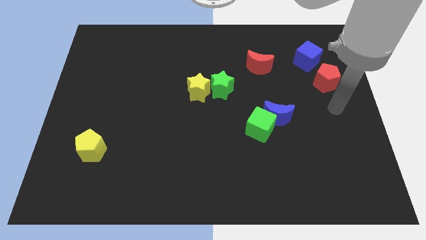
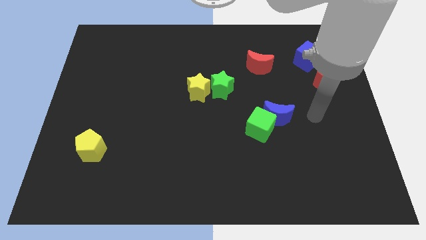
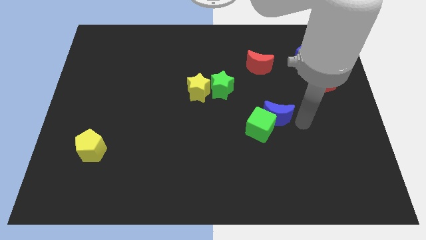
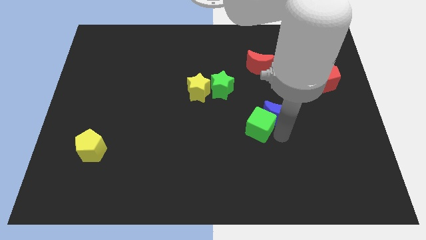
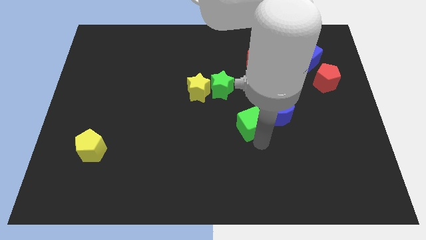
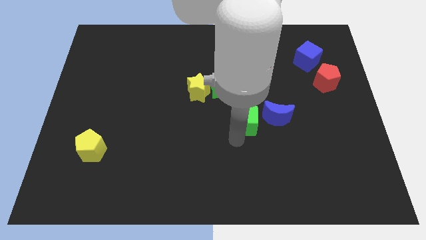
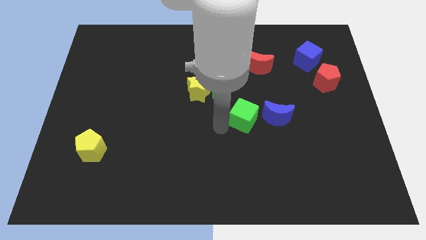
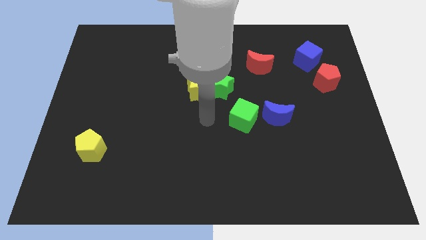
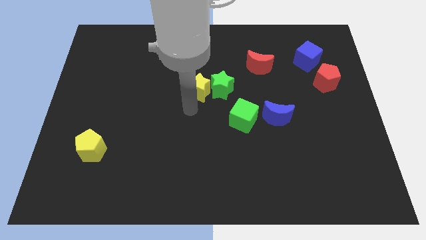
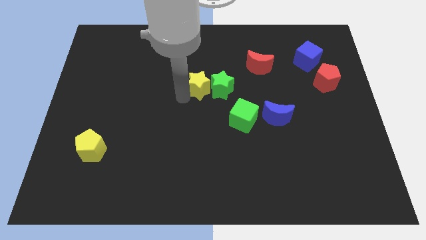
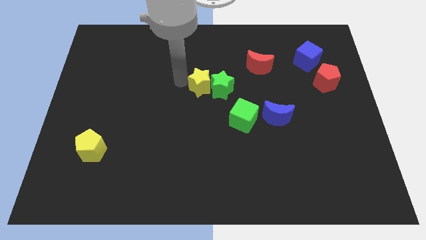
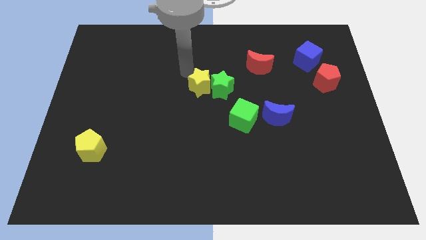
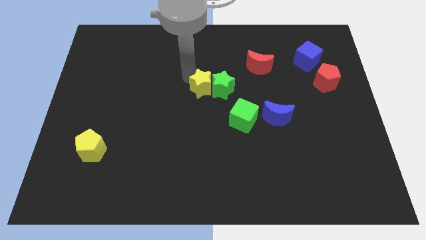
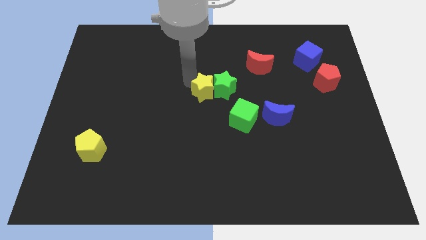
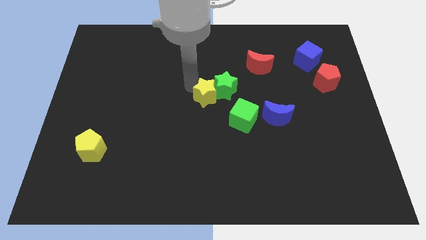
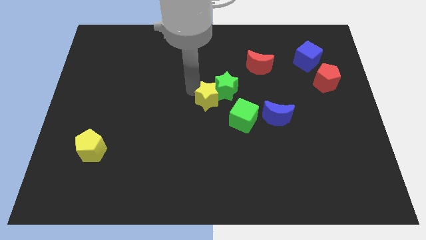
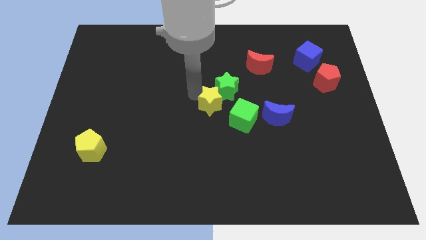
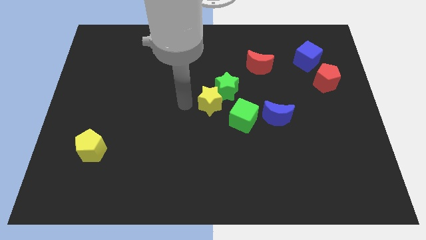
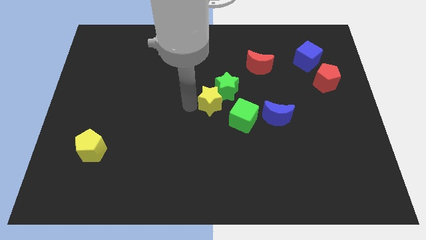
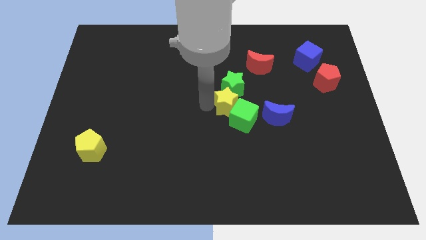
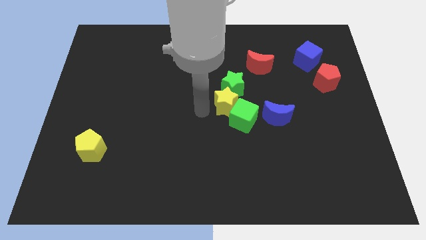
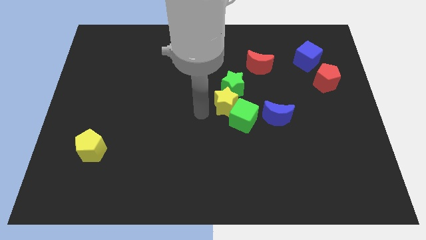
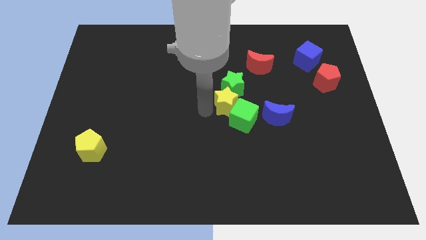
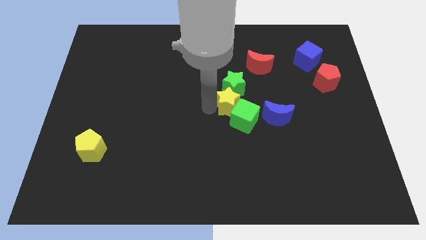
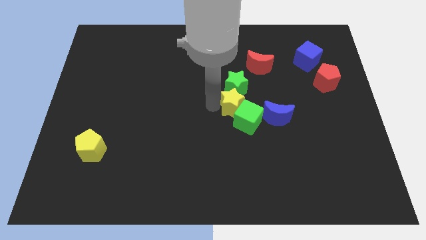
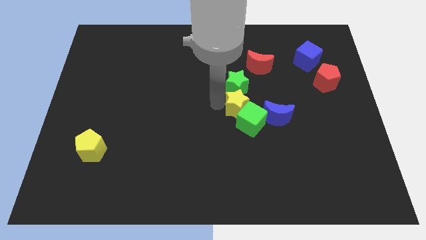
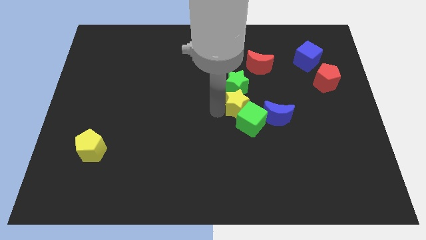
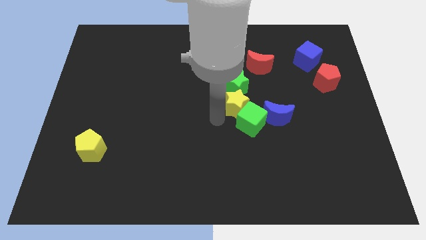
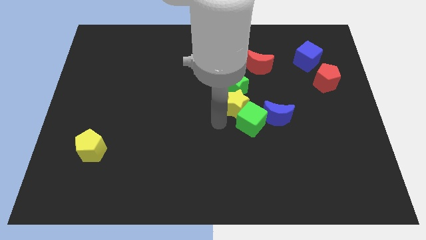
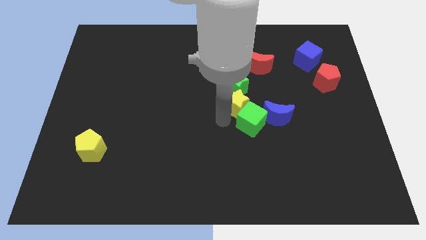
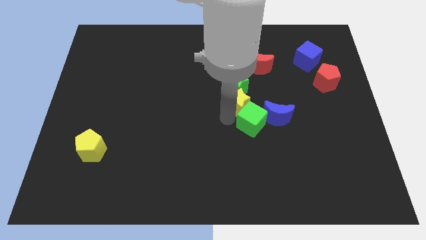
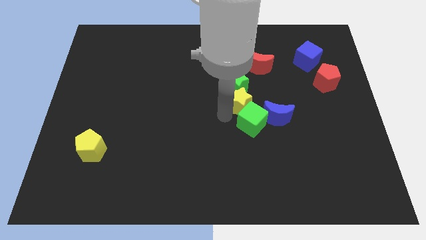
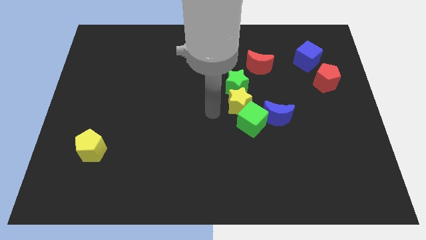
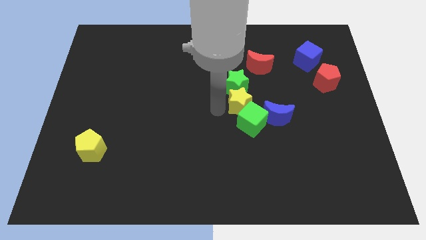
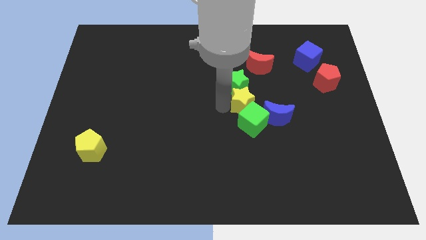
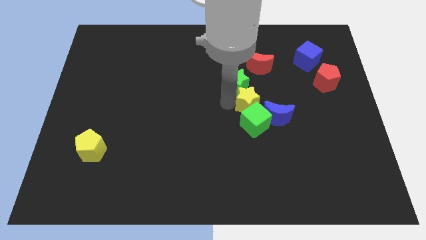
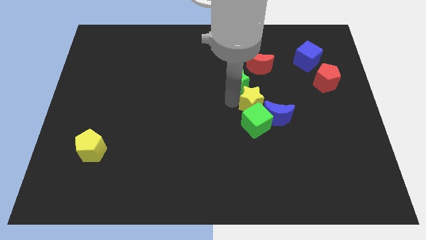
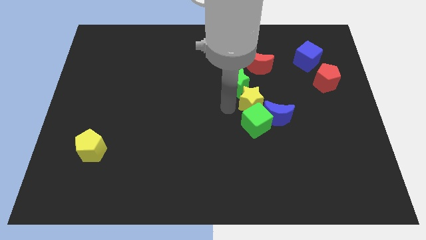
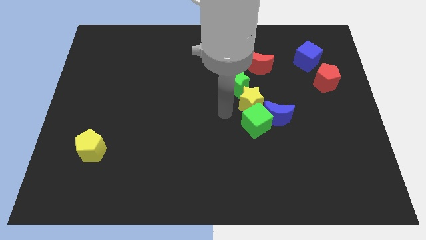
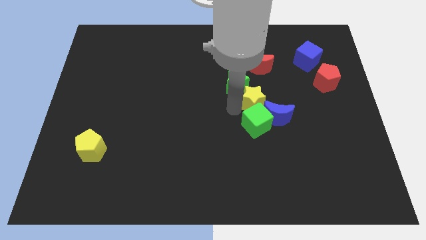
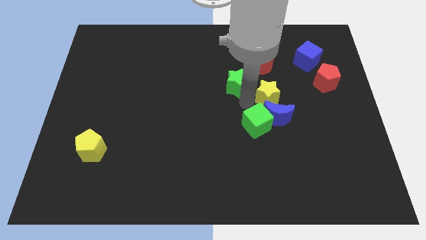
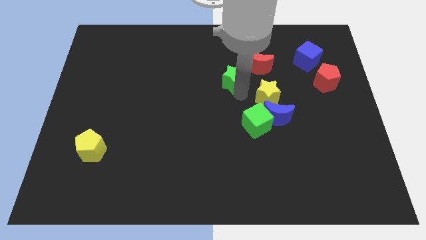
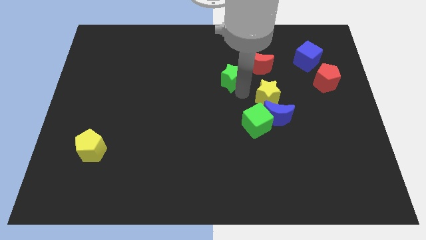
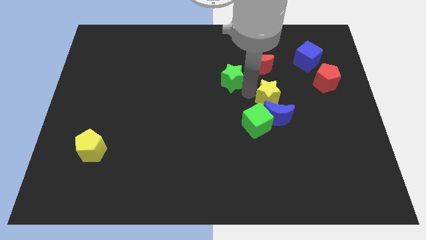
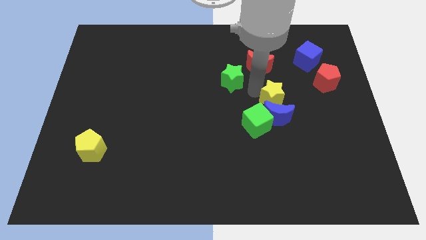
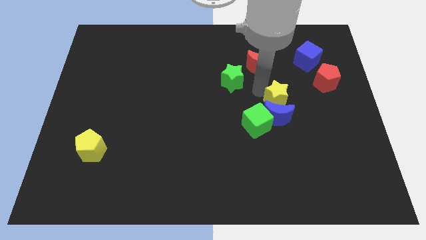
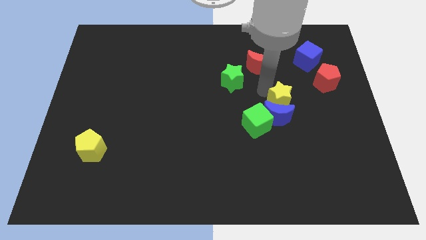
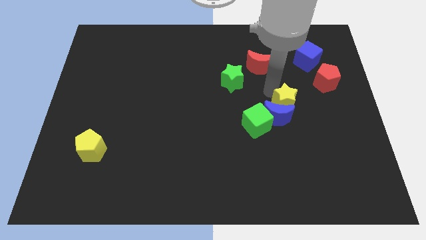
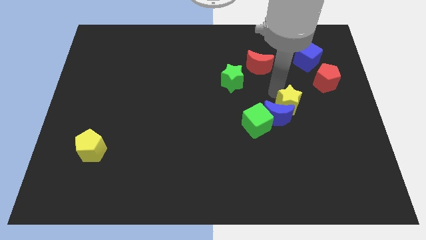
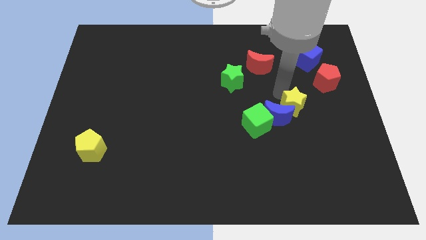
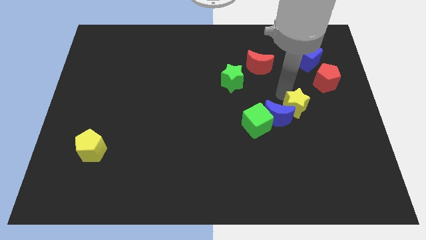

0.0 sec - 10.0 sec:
move the yellow star to the right of the green cube

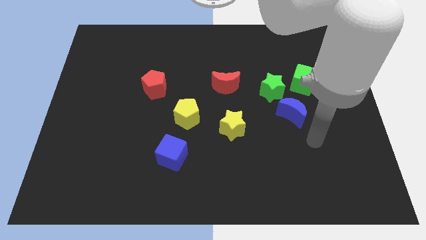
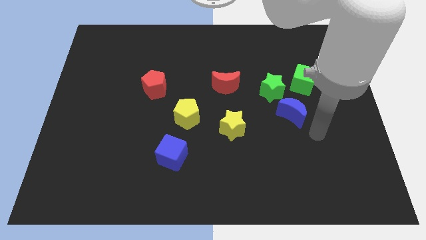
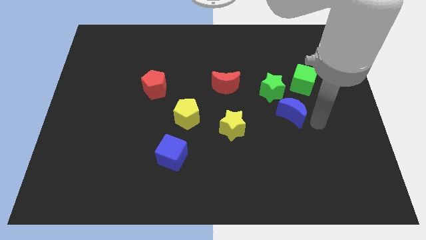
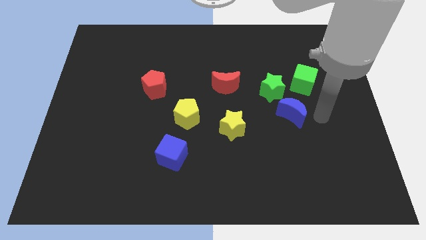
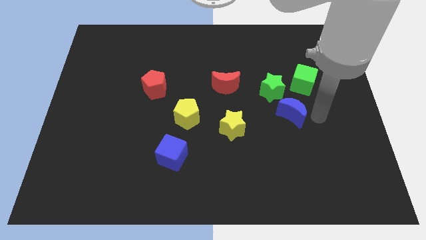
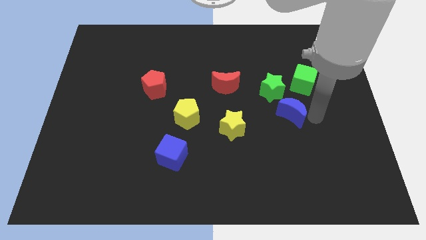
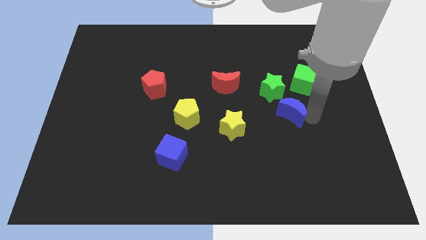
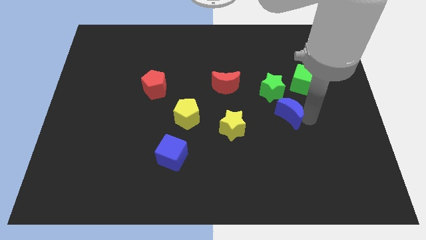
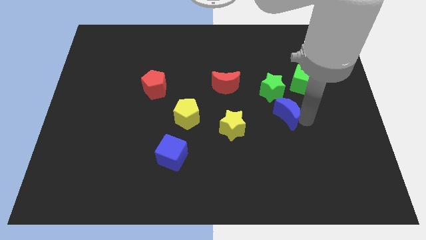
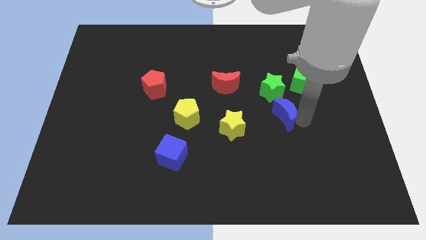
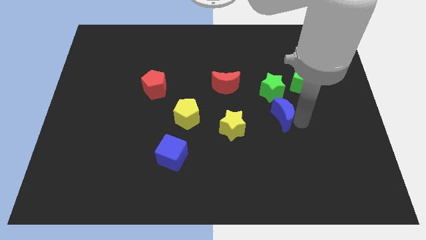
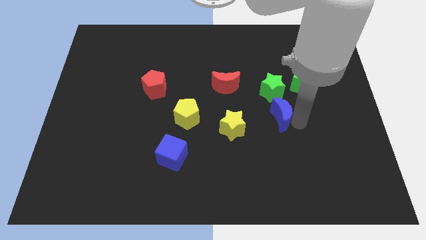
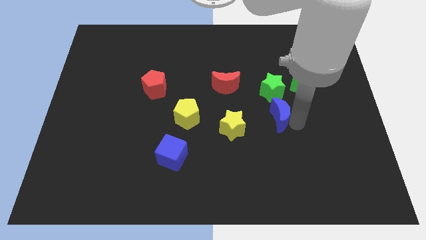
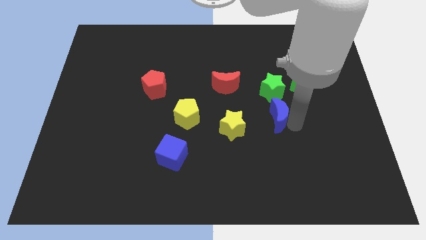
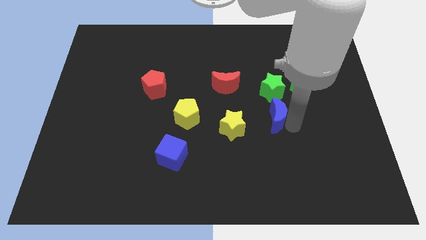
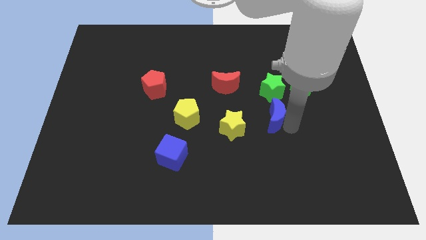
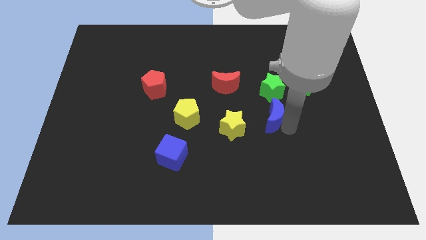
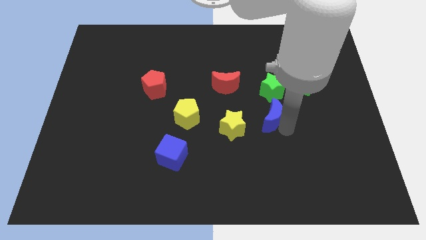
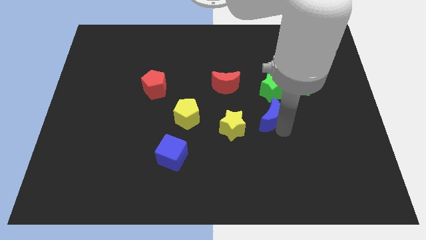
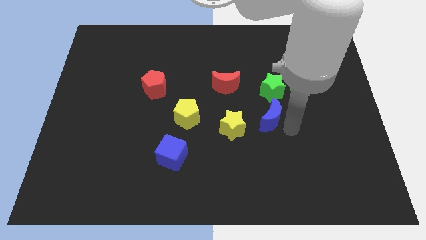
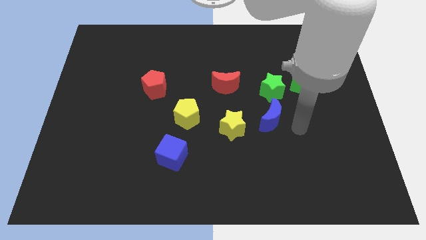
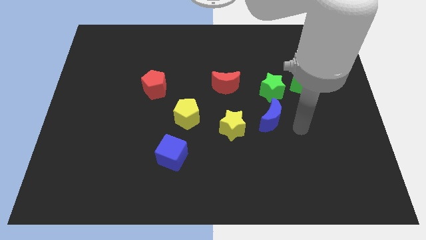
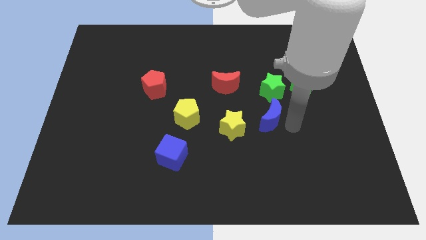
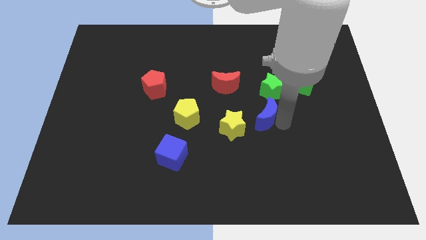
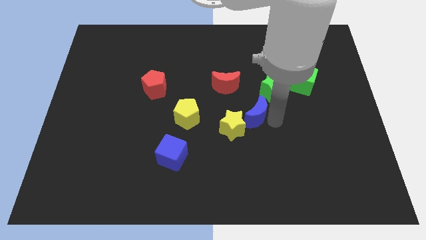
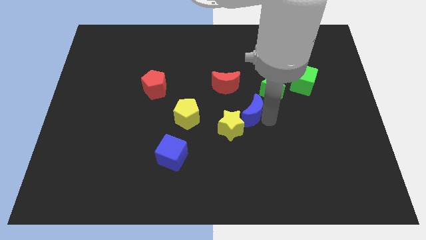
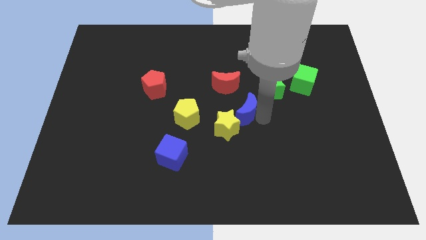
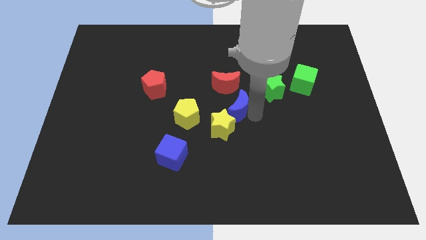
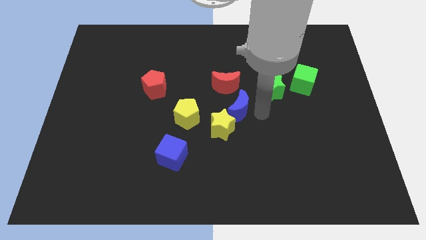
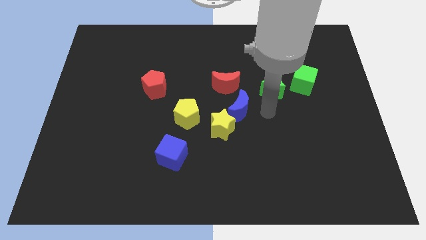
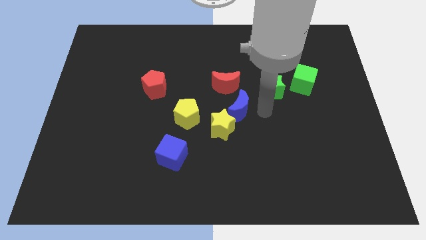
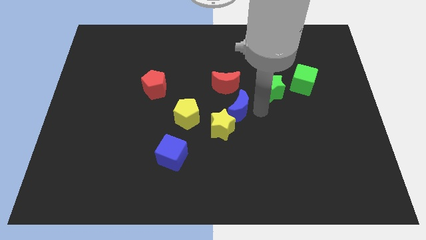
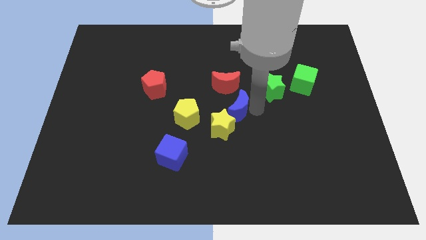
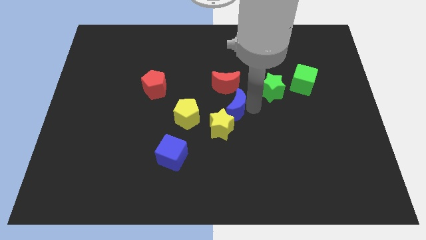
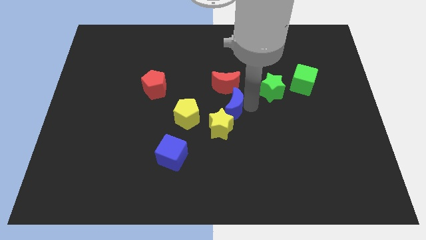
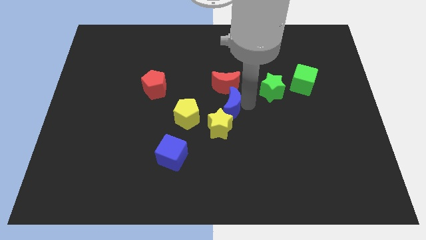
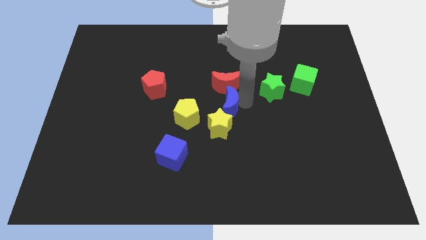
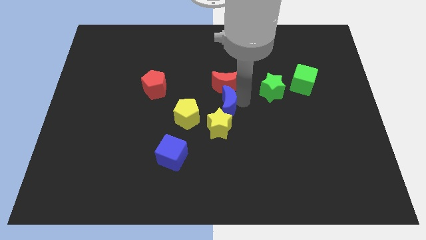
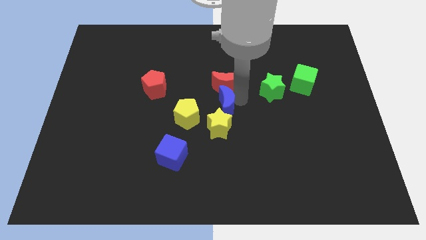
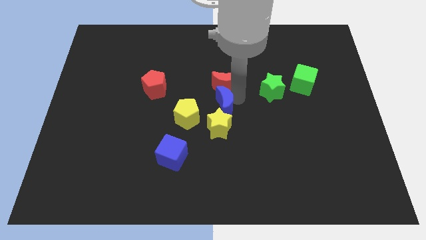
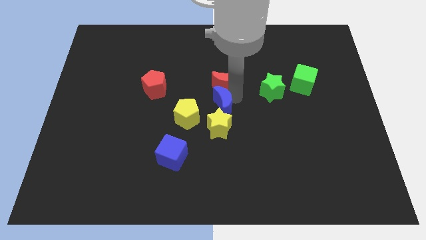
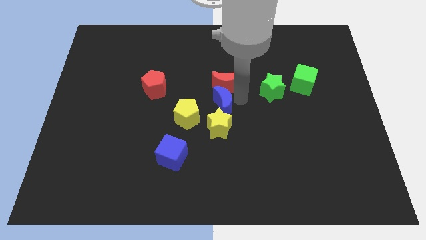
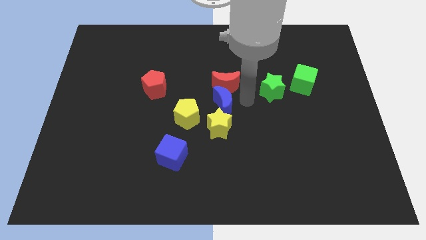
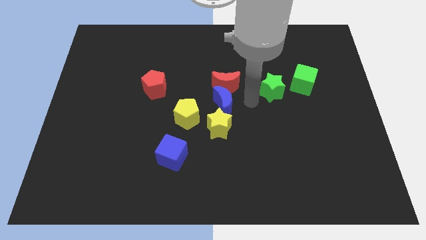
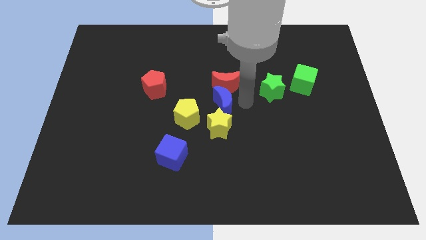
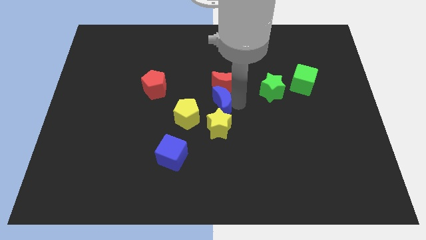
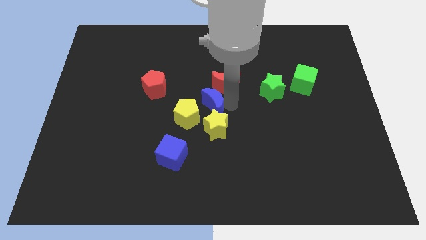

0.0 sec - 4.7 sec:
push the blue moon to the top left of the yellow star
